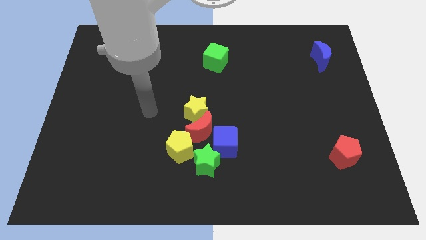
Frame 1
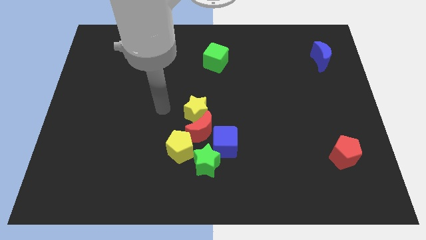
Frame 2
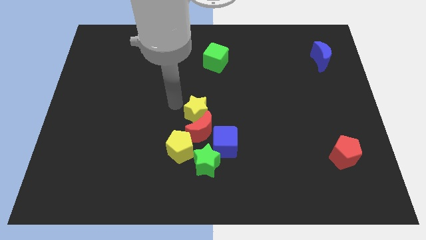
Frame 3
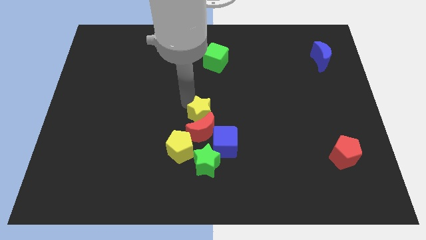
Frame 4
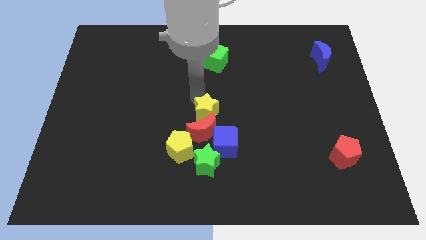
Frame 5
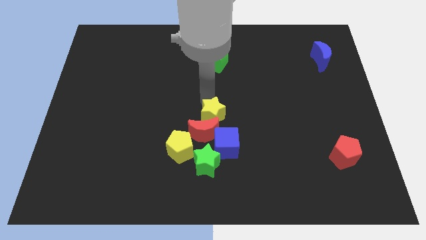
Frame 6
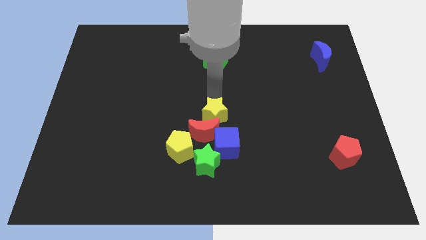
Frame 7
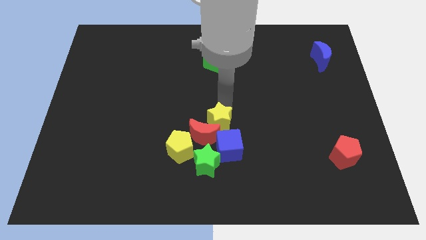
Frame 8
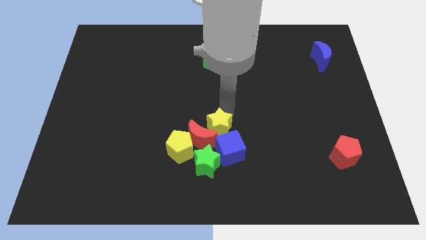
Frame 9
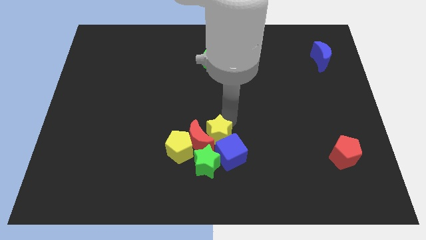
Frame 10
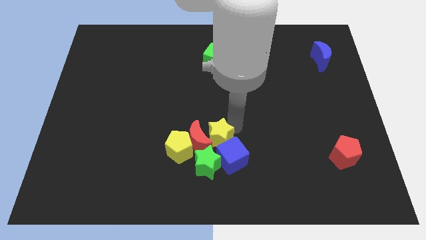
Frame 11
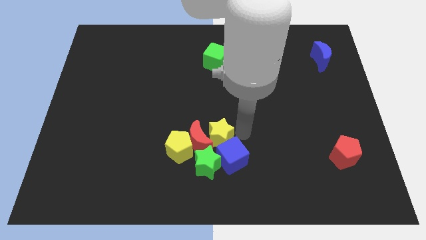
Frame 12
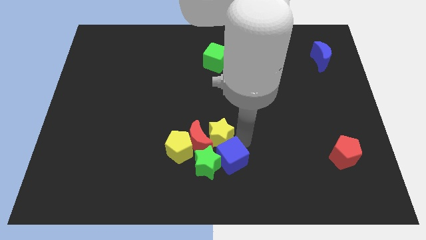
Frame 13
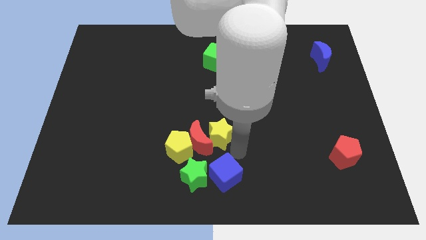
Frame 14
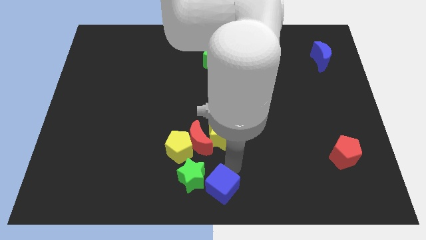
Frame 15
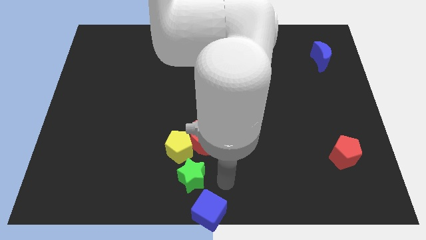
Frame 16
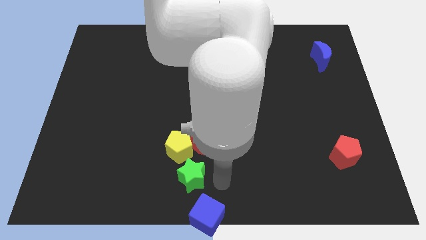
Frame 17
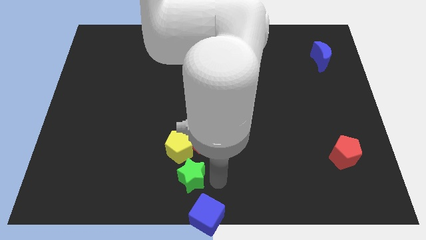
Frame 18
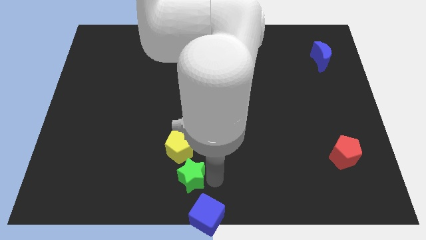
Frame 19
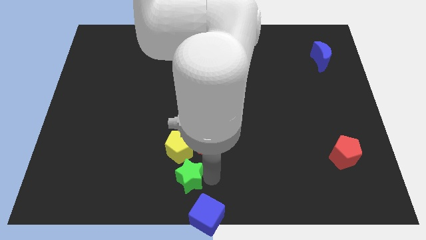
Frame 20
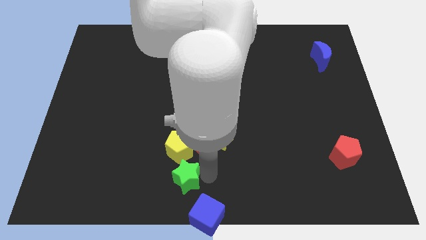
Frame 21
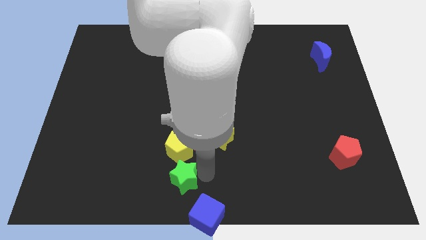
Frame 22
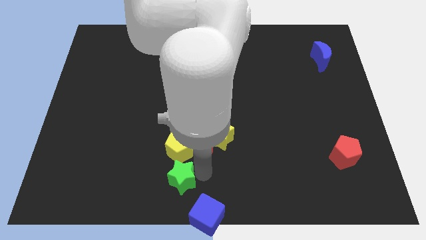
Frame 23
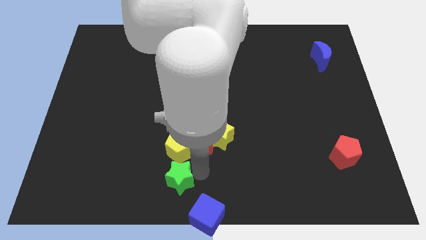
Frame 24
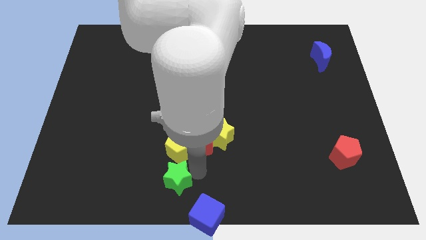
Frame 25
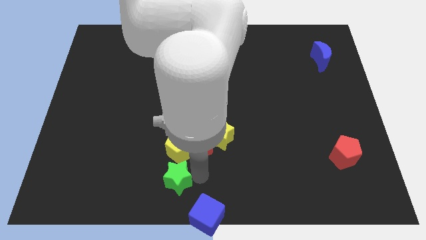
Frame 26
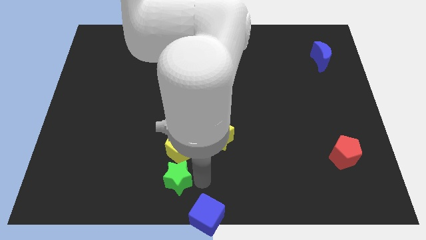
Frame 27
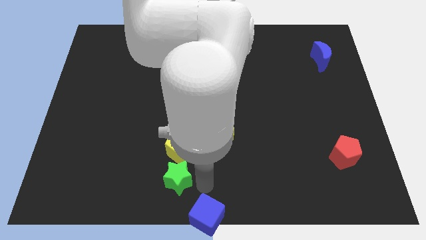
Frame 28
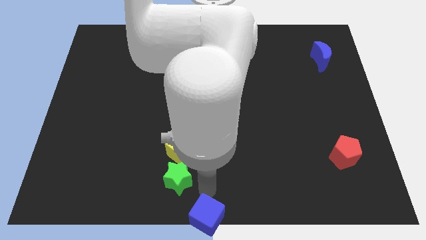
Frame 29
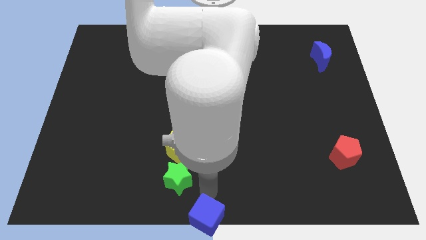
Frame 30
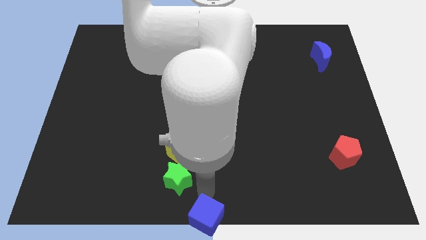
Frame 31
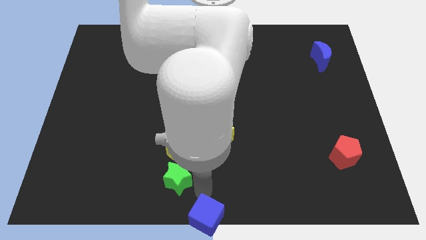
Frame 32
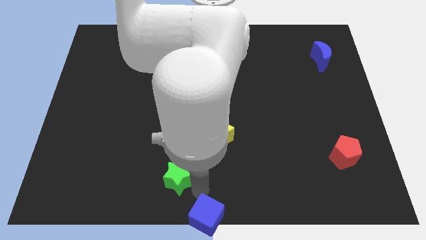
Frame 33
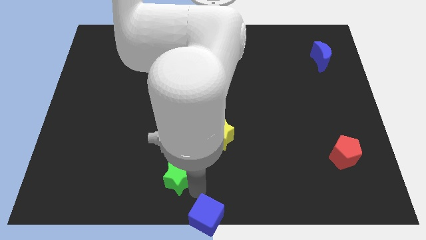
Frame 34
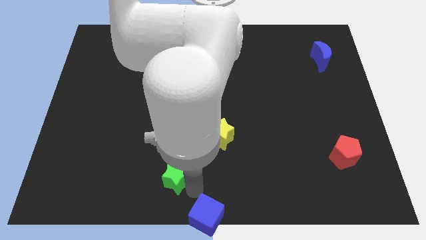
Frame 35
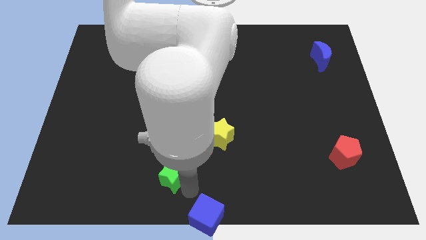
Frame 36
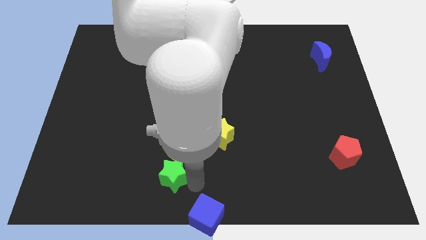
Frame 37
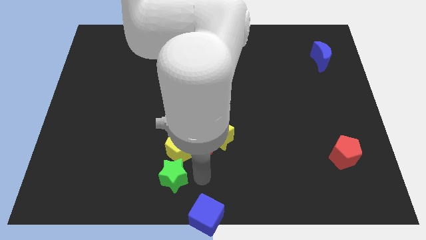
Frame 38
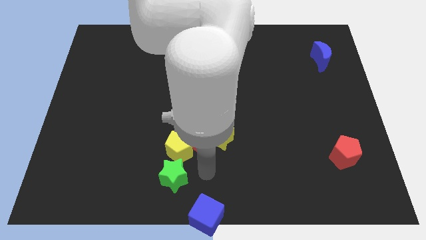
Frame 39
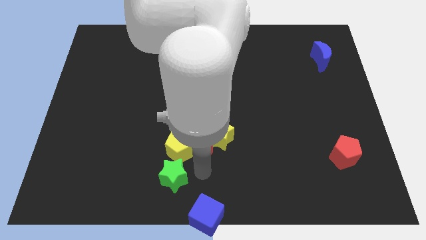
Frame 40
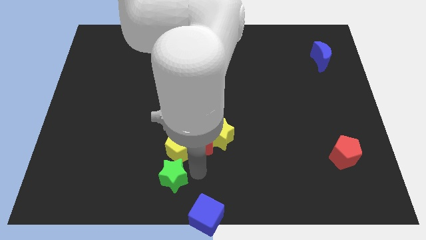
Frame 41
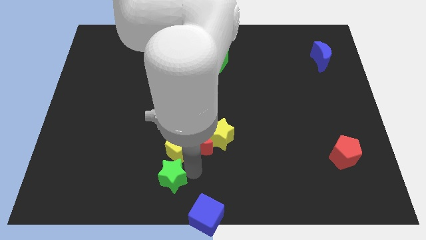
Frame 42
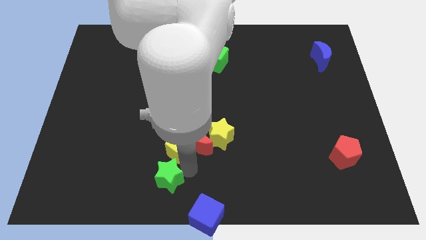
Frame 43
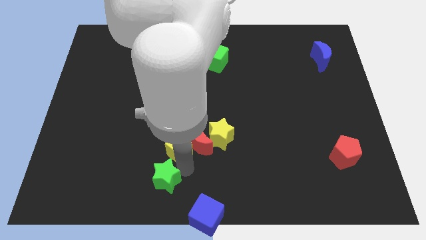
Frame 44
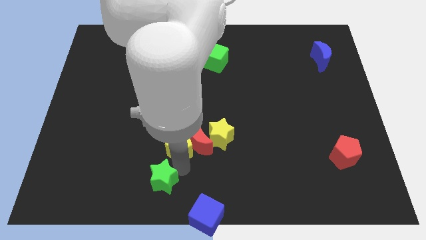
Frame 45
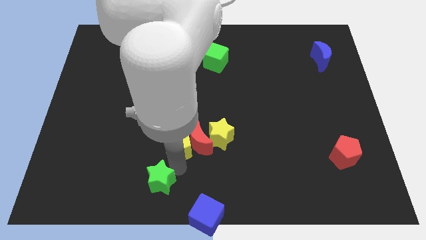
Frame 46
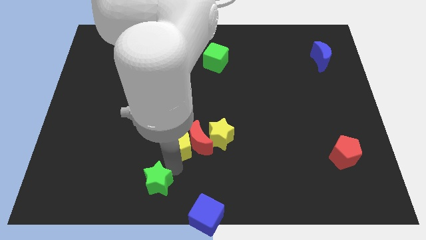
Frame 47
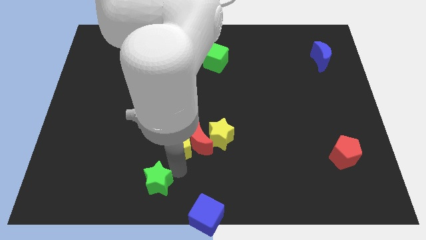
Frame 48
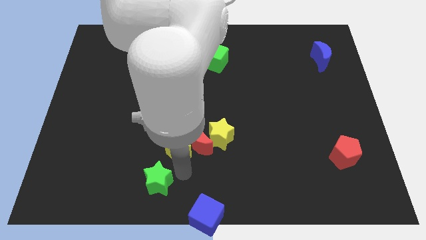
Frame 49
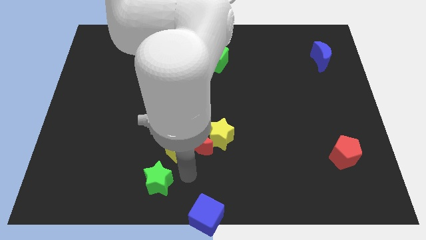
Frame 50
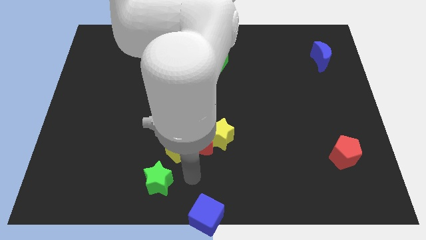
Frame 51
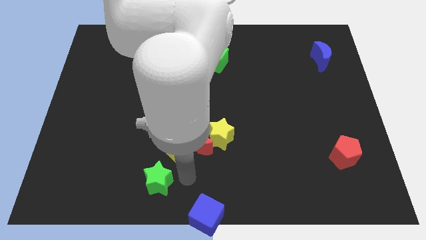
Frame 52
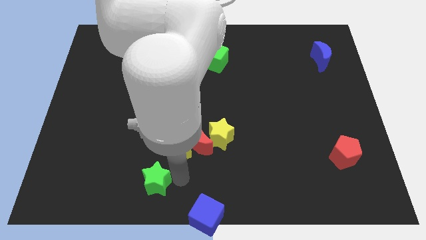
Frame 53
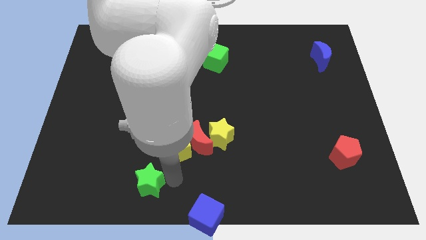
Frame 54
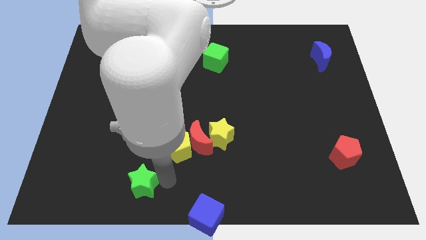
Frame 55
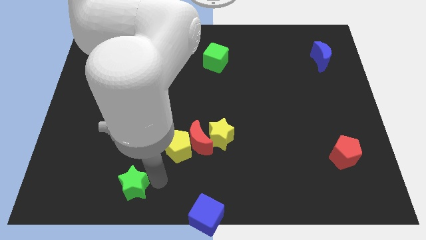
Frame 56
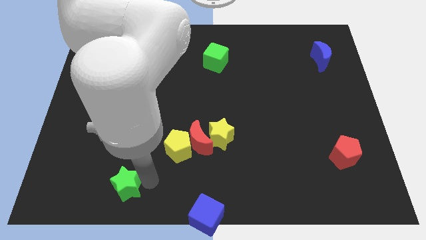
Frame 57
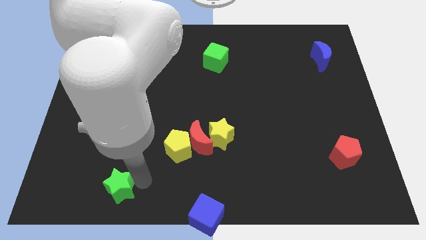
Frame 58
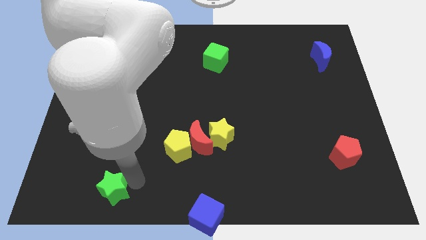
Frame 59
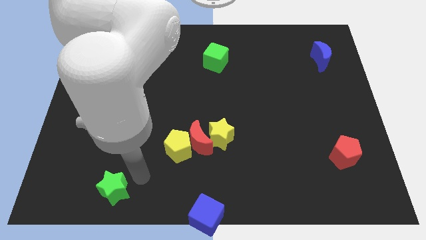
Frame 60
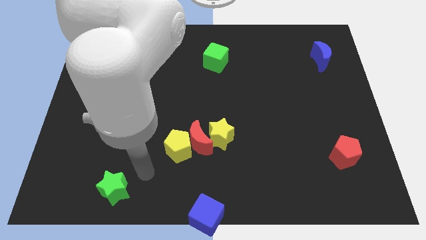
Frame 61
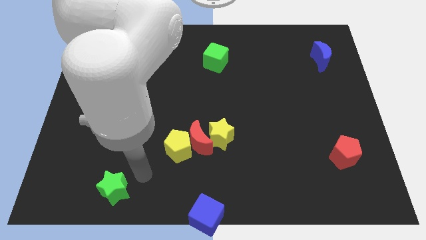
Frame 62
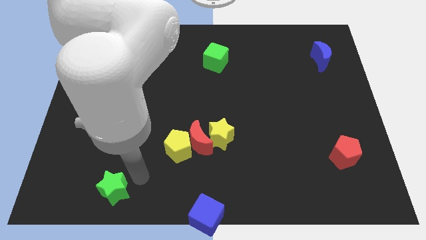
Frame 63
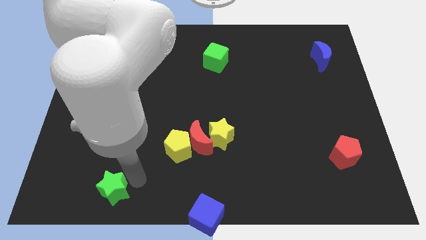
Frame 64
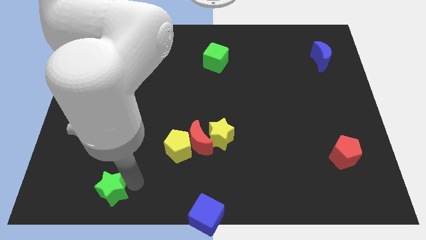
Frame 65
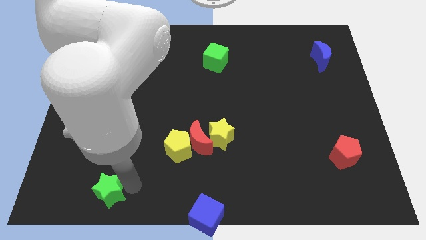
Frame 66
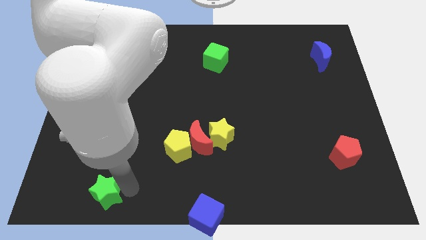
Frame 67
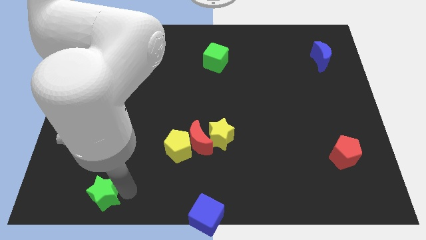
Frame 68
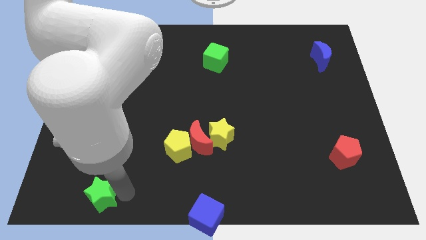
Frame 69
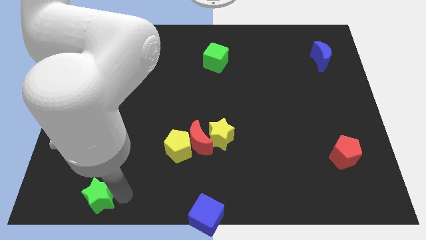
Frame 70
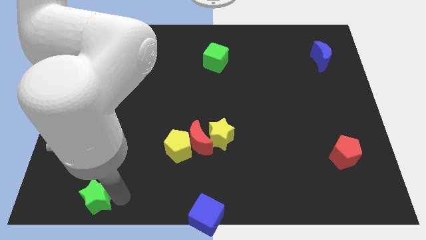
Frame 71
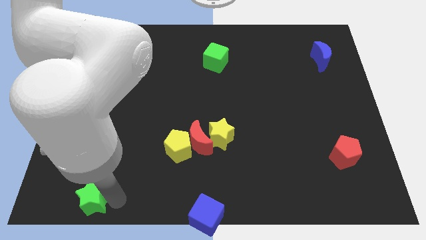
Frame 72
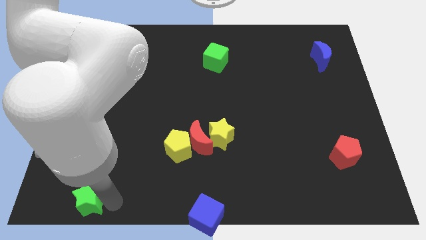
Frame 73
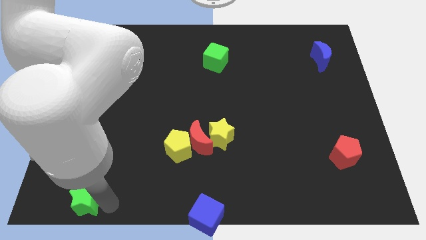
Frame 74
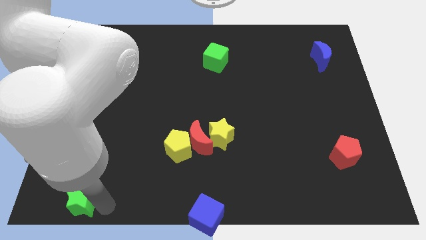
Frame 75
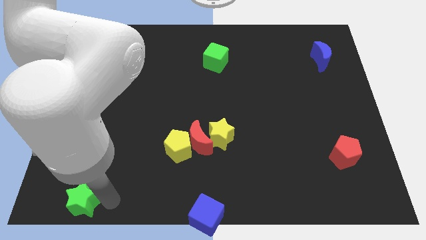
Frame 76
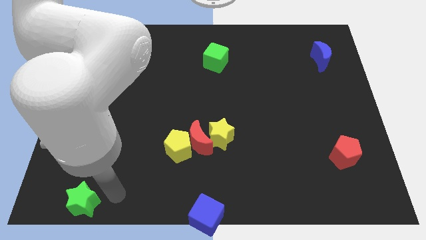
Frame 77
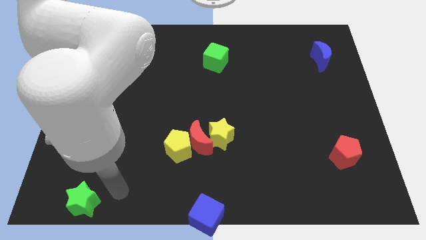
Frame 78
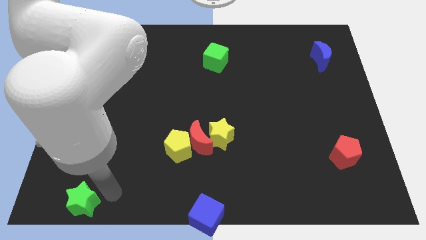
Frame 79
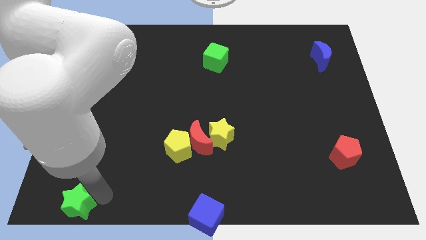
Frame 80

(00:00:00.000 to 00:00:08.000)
put the green star to the lower left corner
